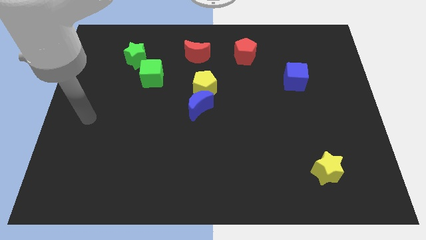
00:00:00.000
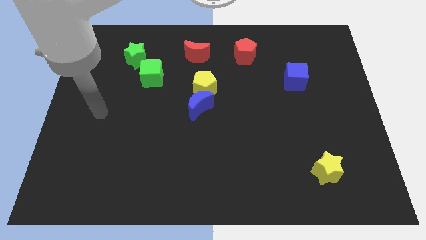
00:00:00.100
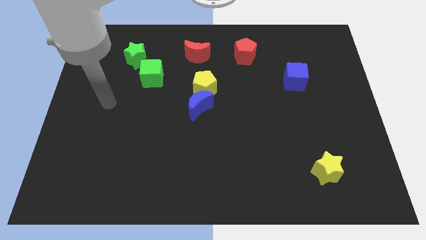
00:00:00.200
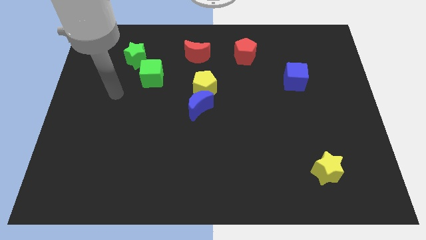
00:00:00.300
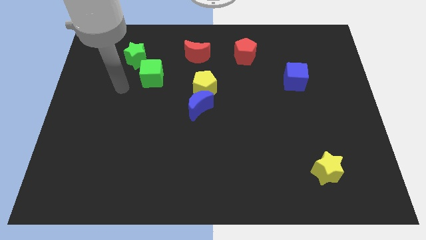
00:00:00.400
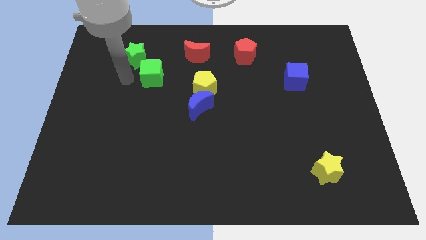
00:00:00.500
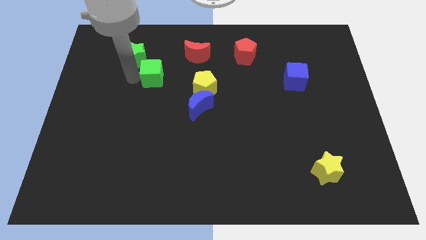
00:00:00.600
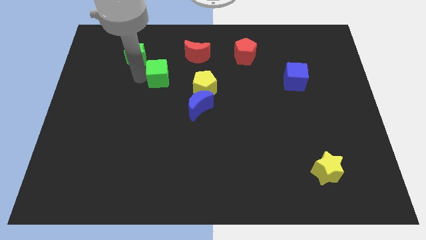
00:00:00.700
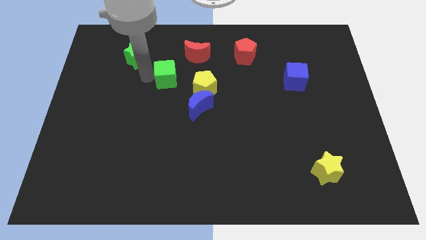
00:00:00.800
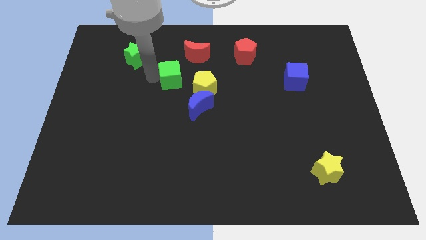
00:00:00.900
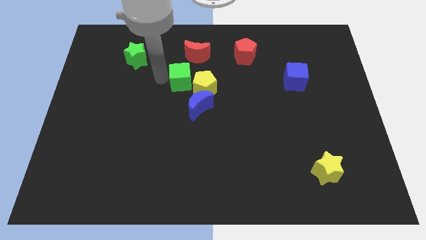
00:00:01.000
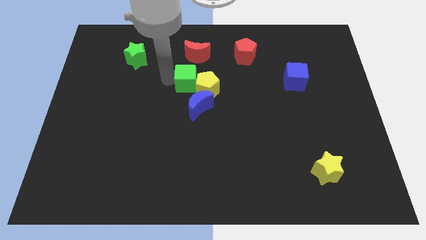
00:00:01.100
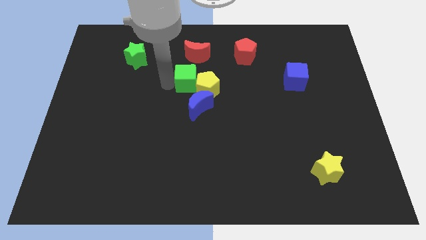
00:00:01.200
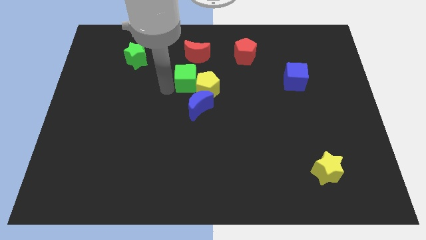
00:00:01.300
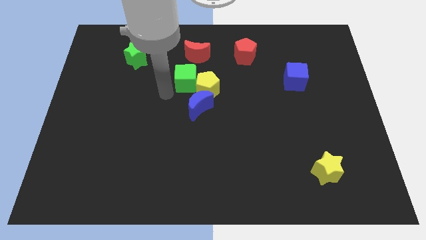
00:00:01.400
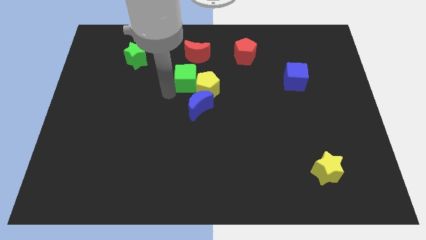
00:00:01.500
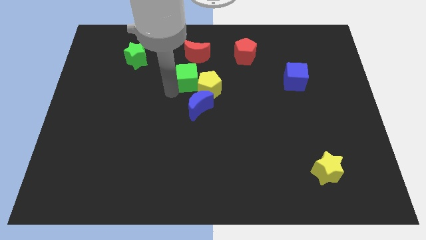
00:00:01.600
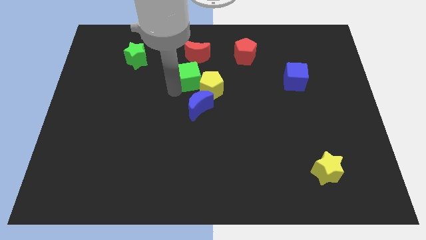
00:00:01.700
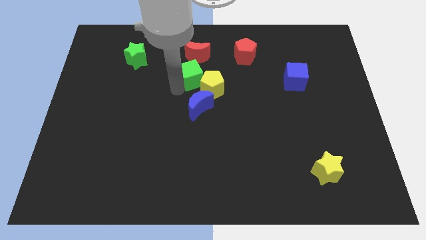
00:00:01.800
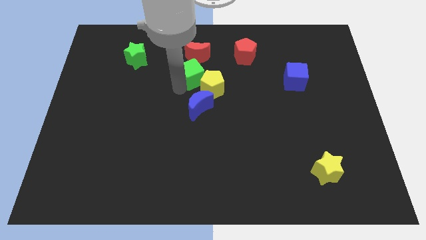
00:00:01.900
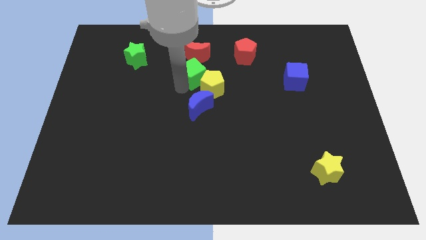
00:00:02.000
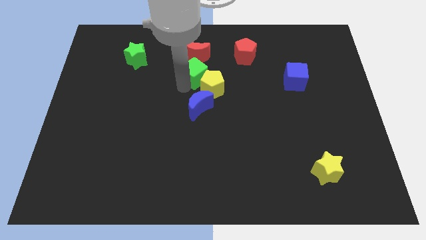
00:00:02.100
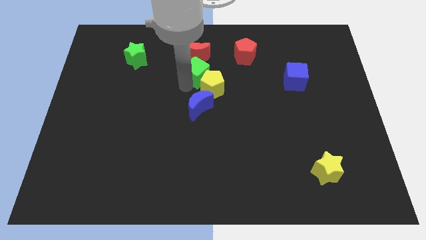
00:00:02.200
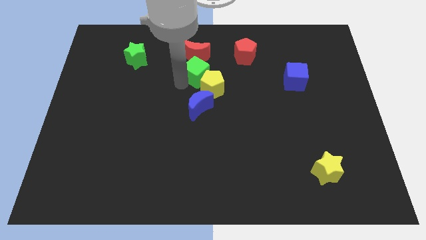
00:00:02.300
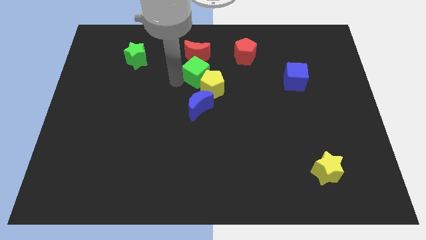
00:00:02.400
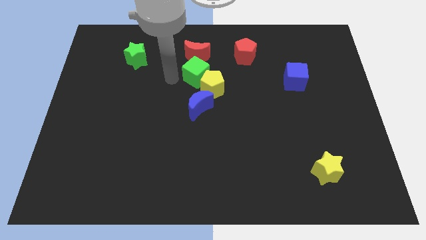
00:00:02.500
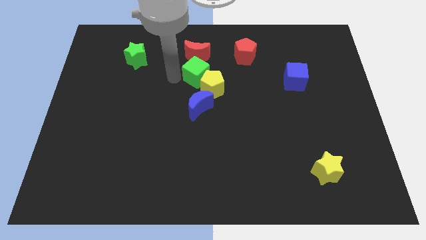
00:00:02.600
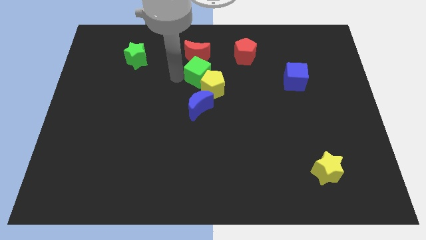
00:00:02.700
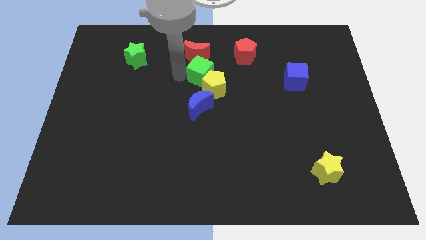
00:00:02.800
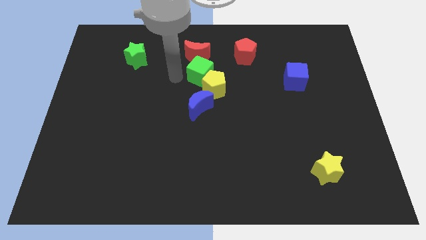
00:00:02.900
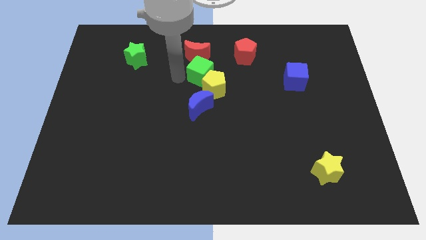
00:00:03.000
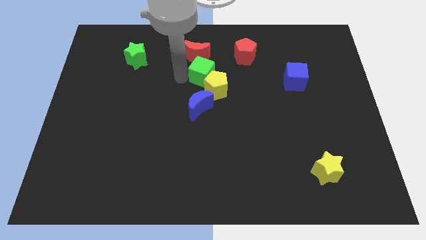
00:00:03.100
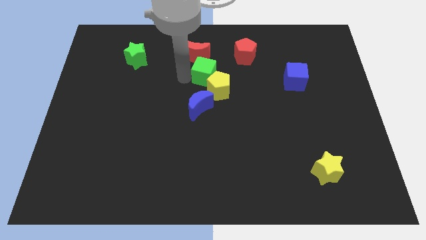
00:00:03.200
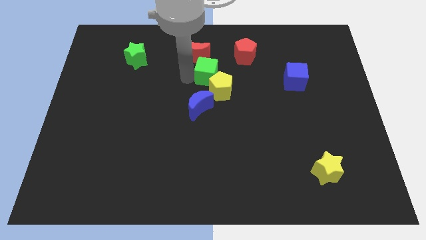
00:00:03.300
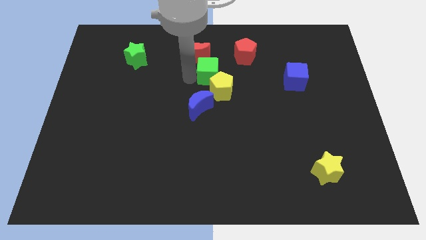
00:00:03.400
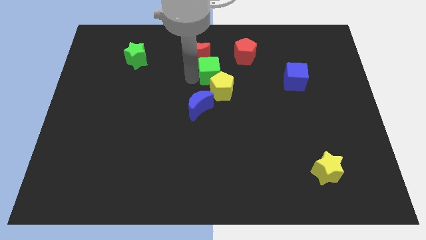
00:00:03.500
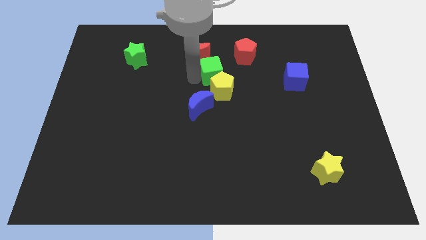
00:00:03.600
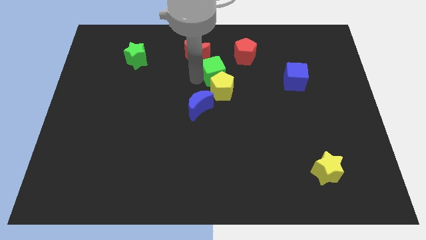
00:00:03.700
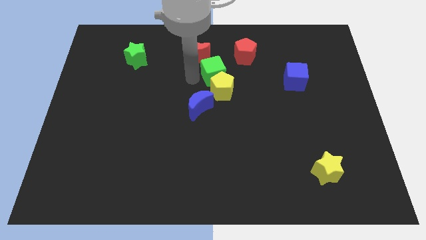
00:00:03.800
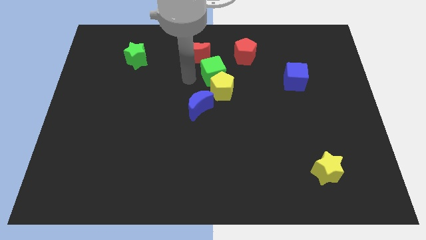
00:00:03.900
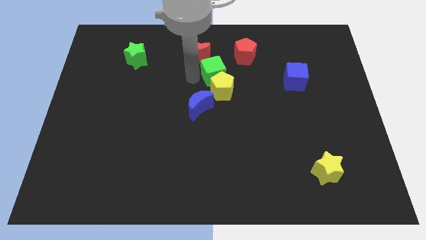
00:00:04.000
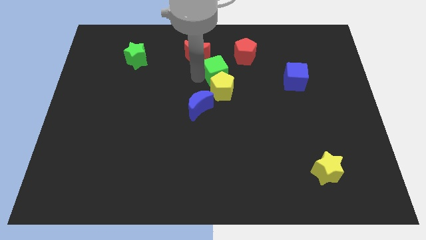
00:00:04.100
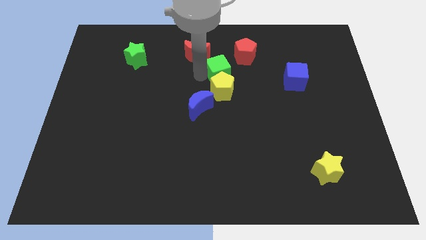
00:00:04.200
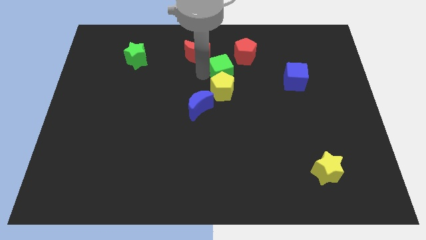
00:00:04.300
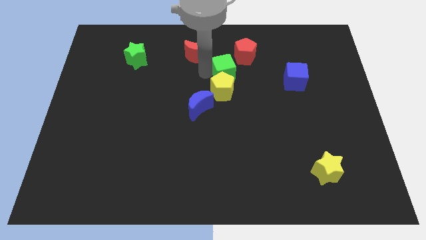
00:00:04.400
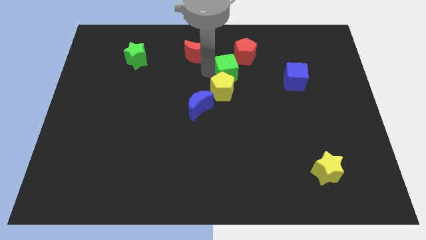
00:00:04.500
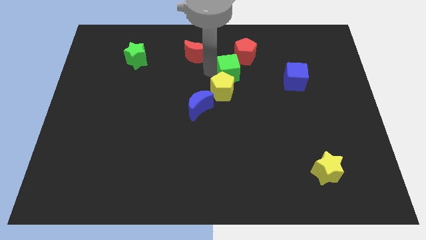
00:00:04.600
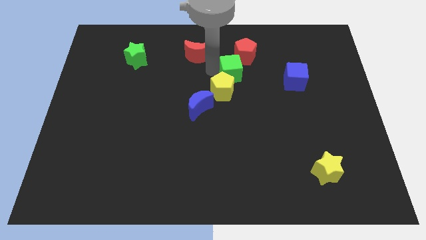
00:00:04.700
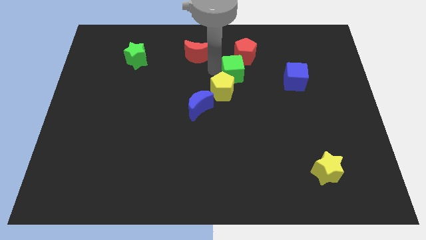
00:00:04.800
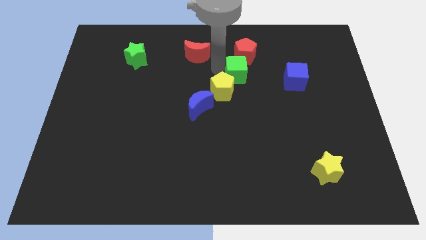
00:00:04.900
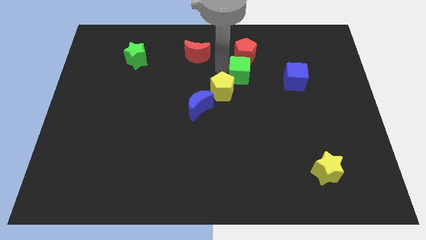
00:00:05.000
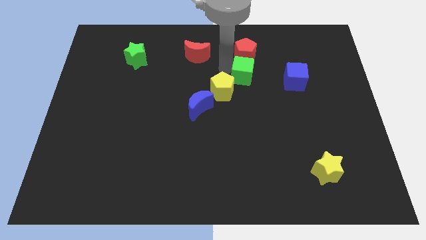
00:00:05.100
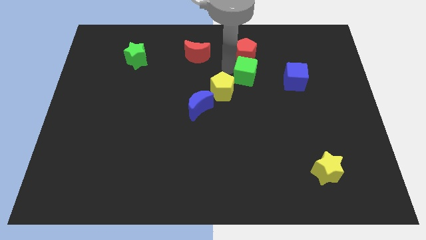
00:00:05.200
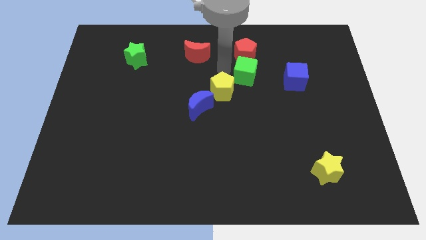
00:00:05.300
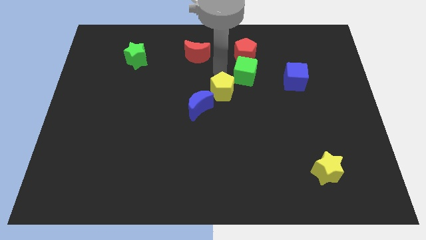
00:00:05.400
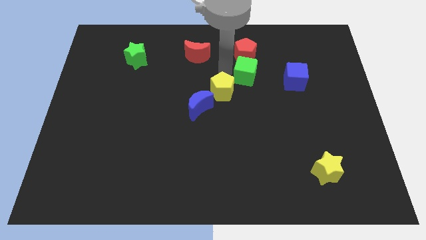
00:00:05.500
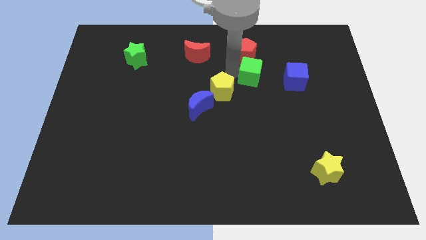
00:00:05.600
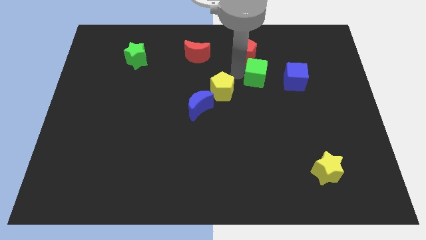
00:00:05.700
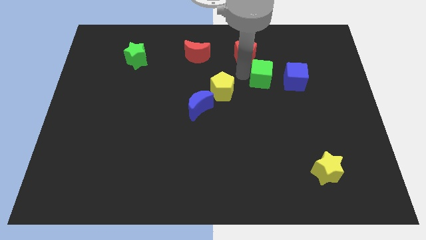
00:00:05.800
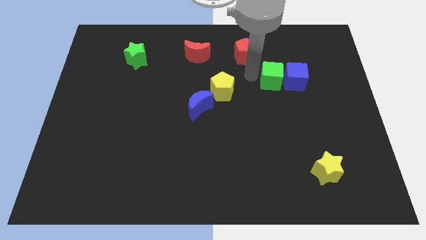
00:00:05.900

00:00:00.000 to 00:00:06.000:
slide the green cube next to the blue cube

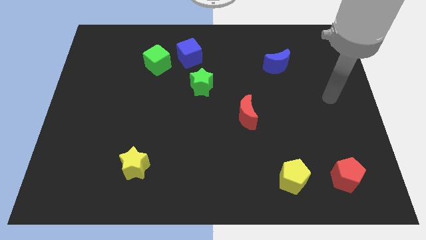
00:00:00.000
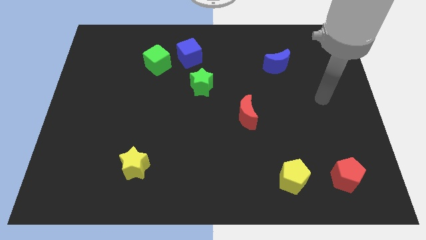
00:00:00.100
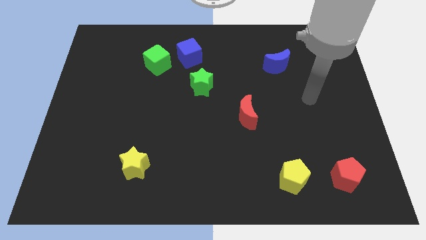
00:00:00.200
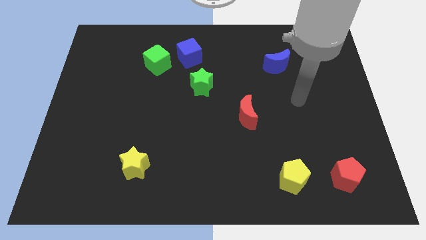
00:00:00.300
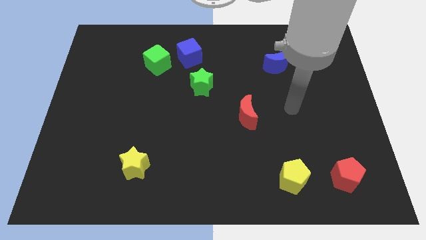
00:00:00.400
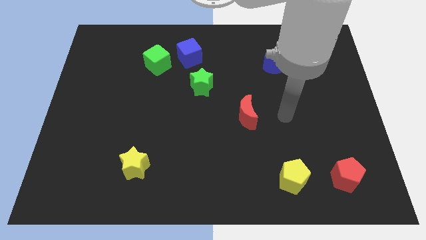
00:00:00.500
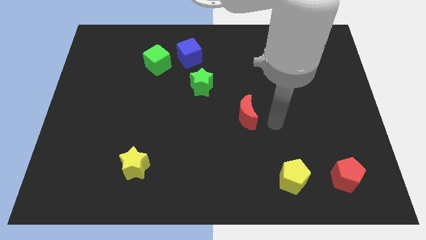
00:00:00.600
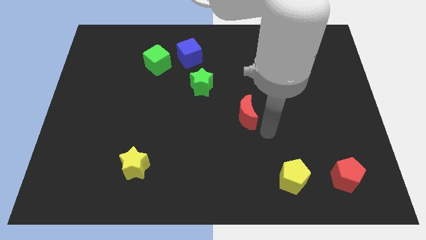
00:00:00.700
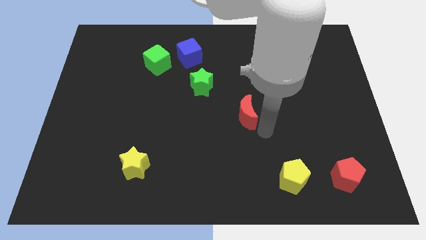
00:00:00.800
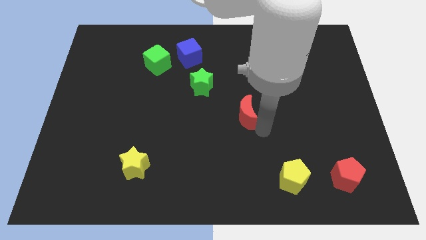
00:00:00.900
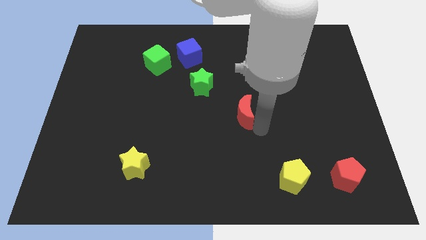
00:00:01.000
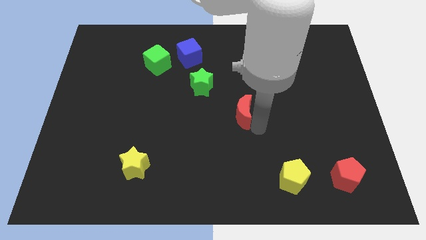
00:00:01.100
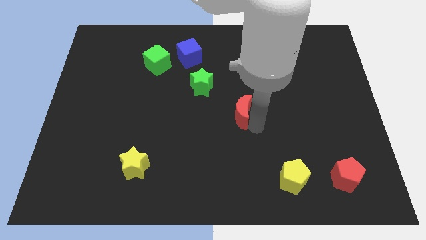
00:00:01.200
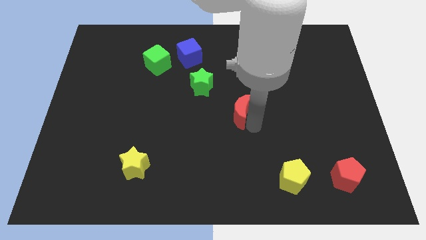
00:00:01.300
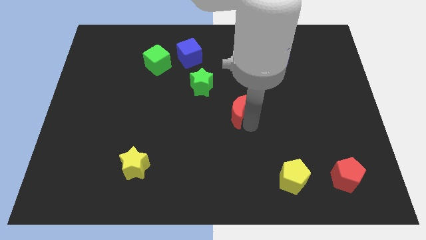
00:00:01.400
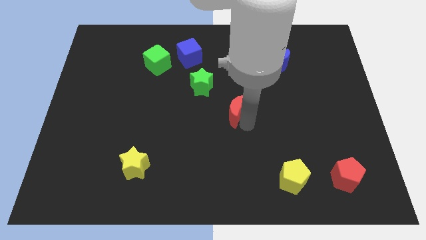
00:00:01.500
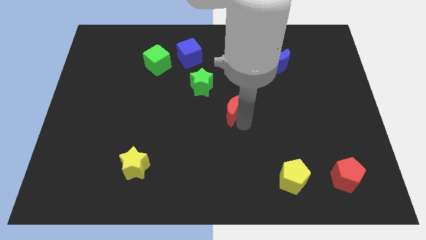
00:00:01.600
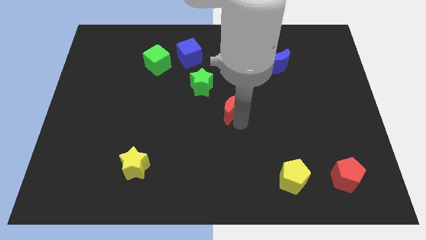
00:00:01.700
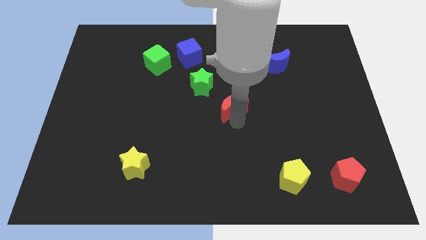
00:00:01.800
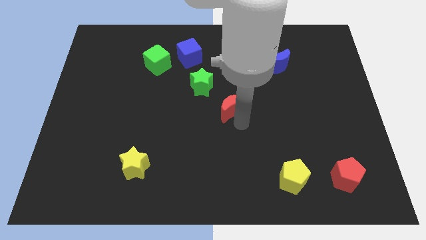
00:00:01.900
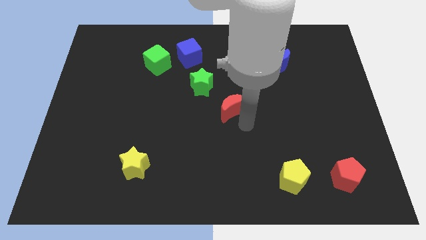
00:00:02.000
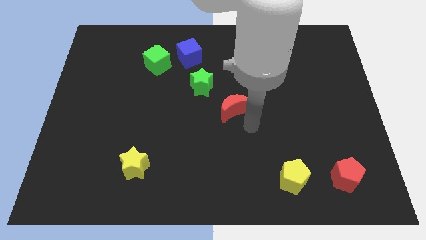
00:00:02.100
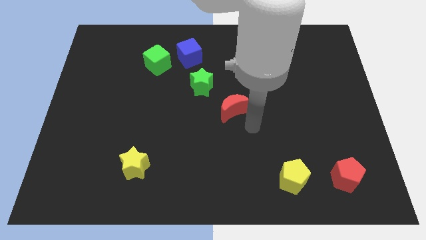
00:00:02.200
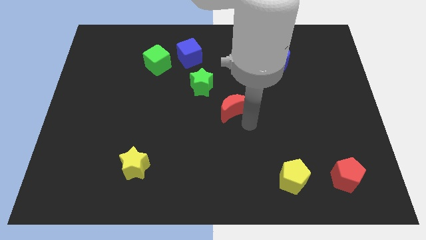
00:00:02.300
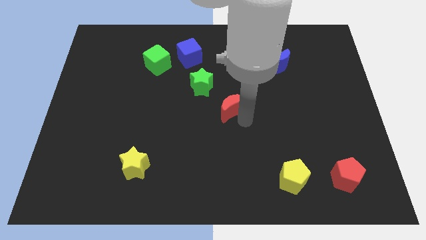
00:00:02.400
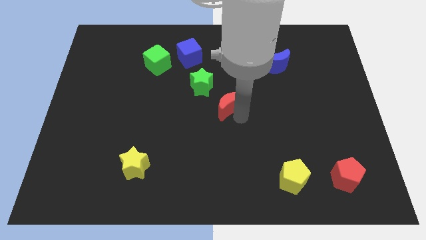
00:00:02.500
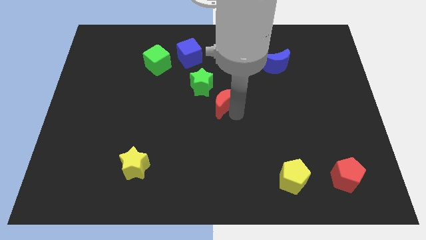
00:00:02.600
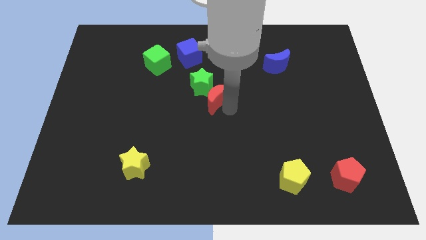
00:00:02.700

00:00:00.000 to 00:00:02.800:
push the red moon towards the green star
